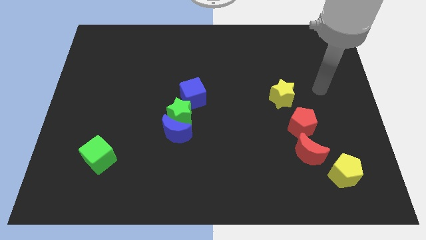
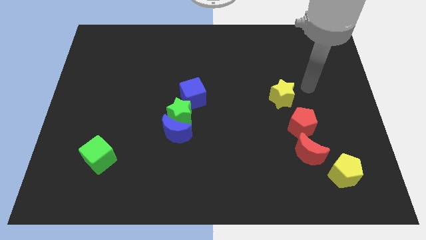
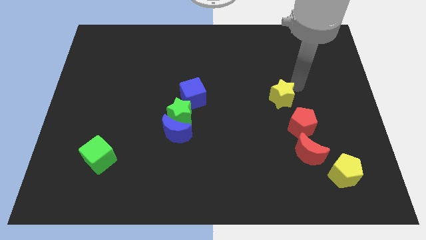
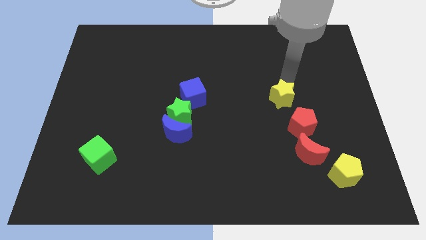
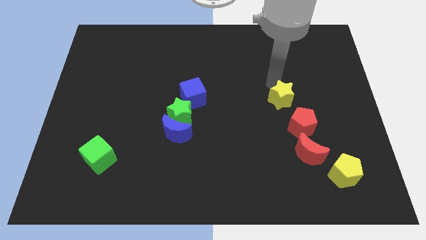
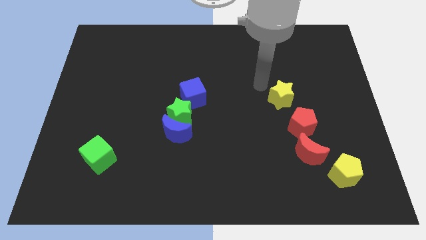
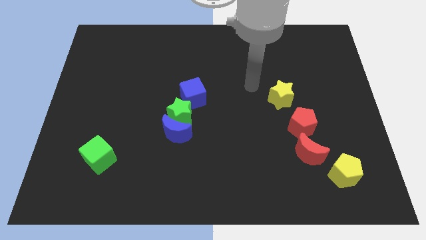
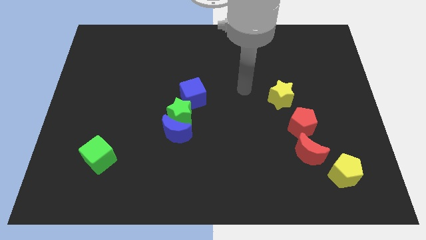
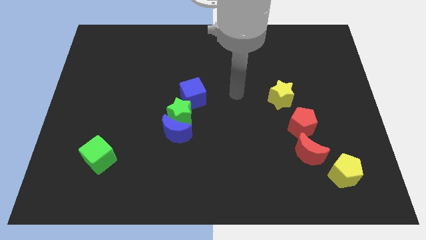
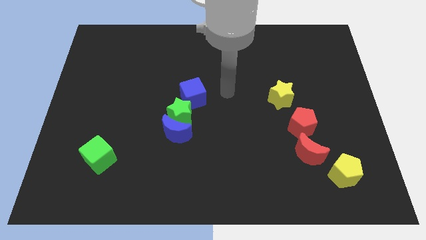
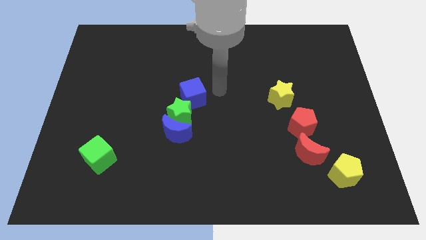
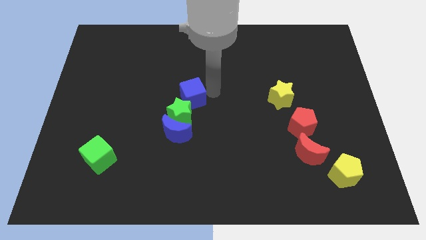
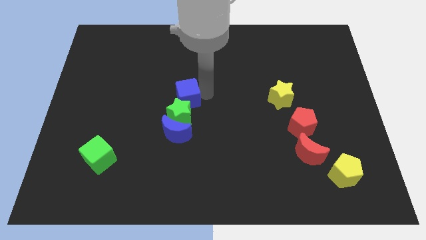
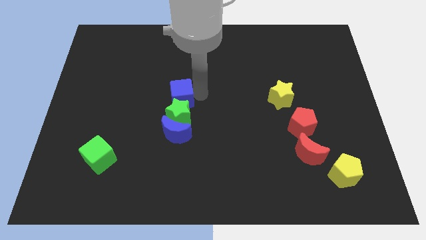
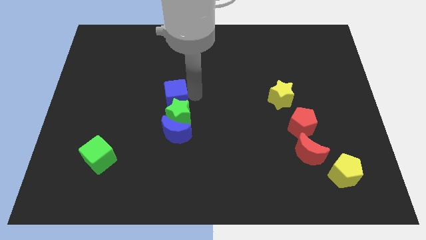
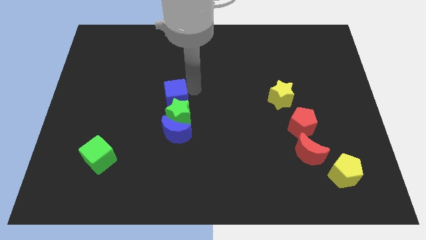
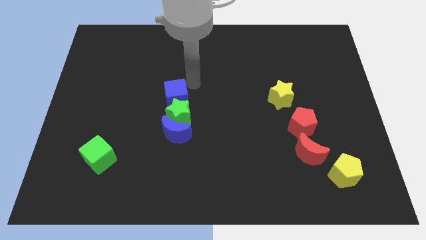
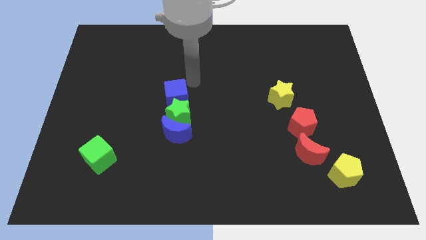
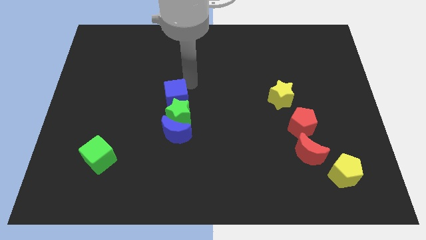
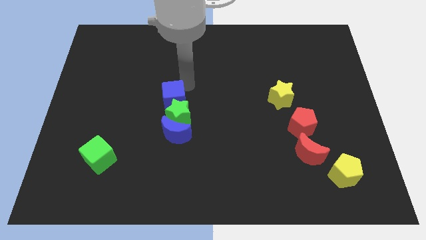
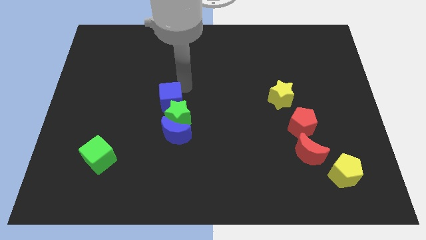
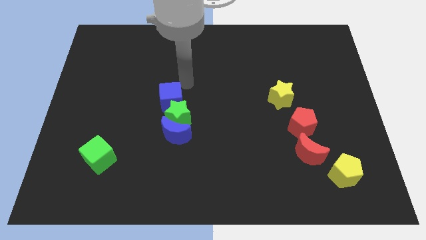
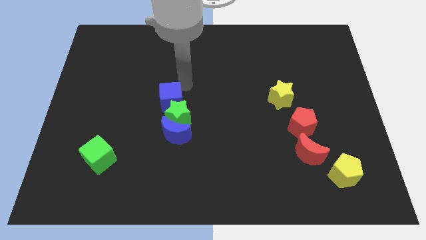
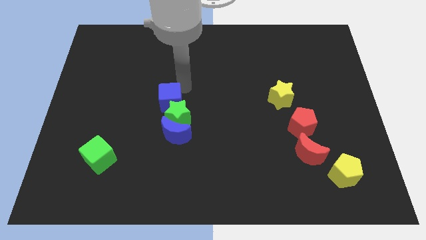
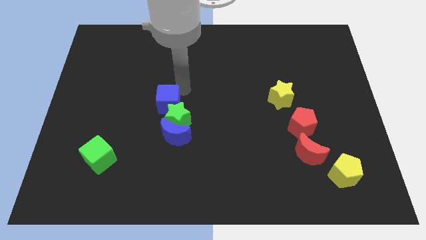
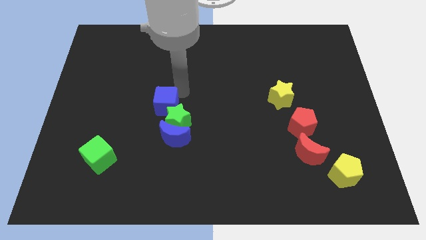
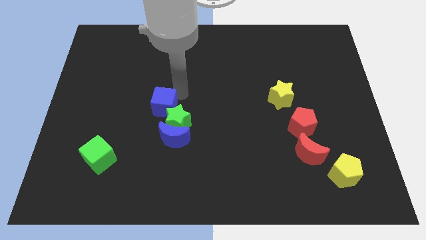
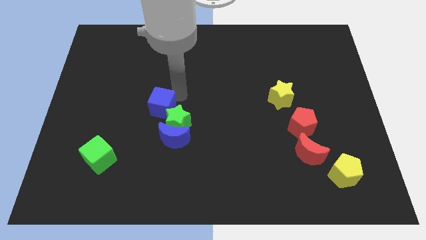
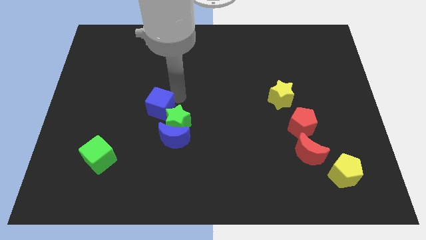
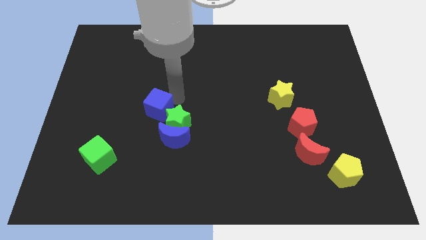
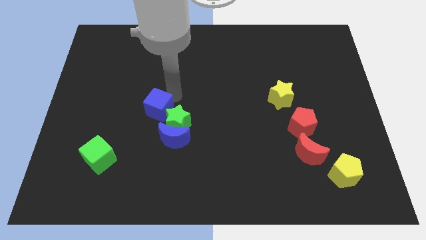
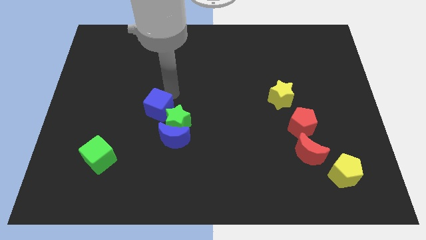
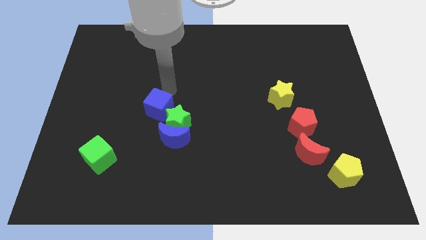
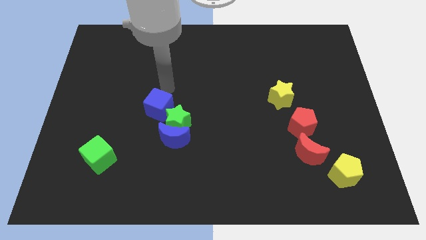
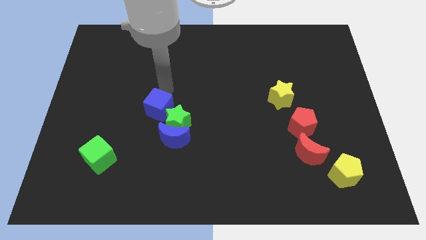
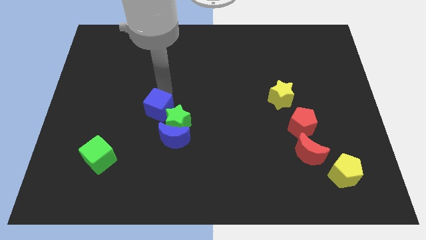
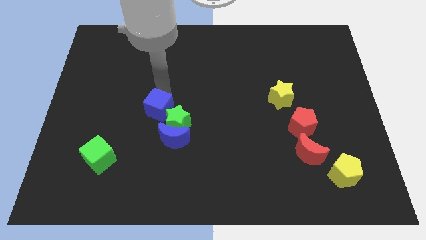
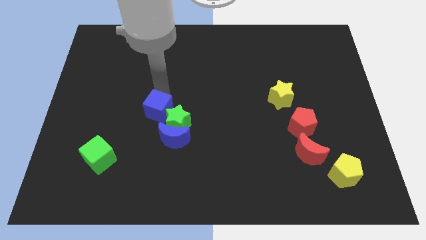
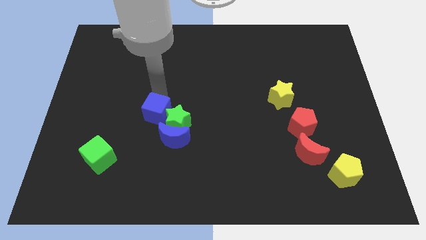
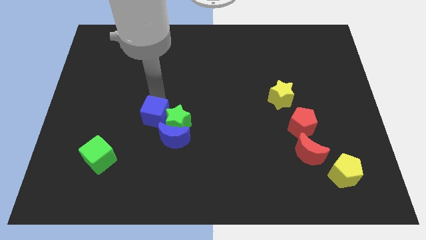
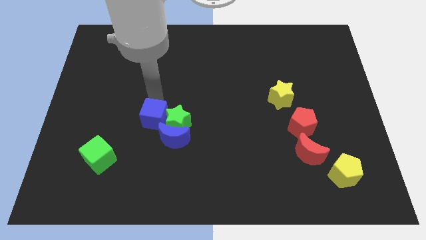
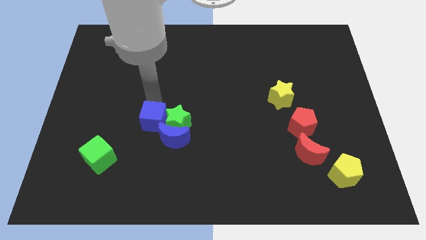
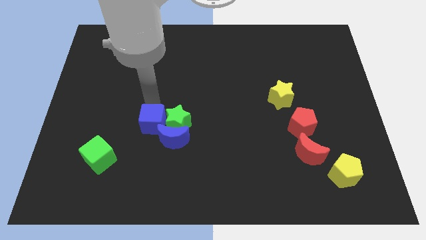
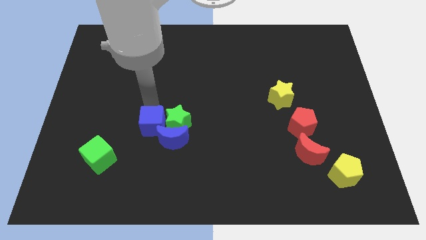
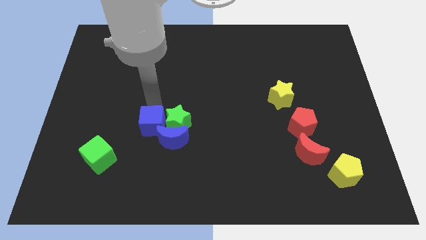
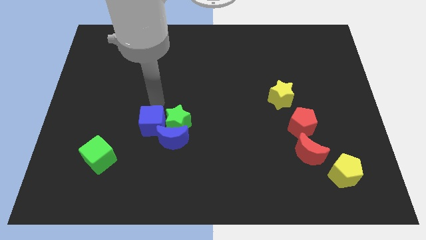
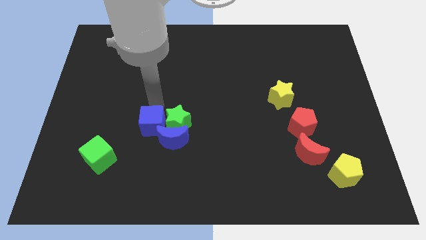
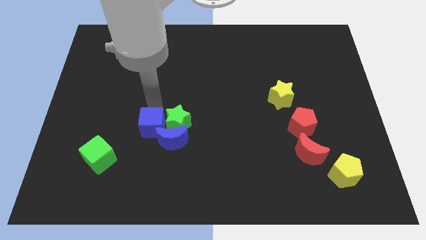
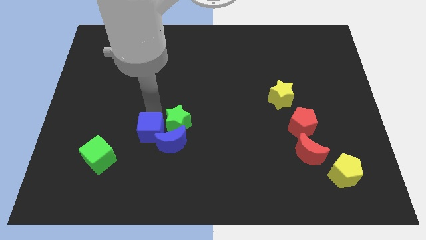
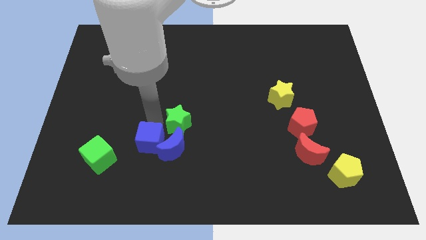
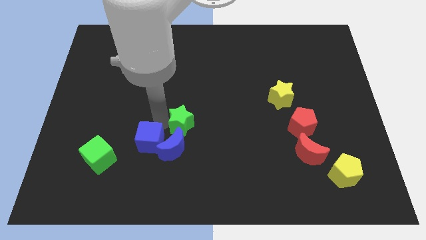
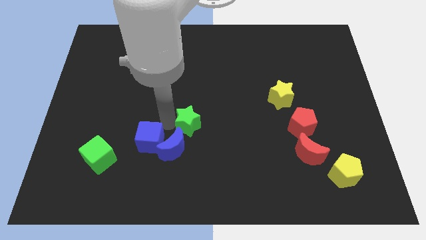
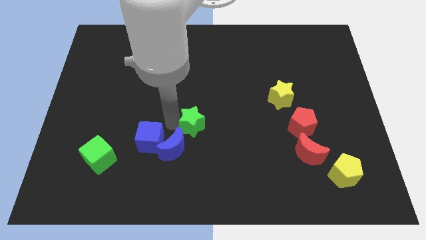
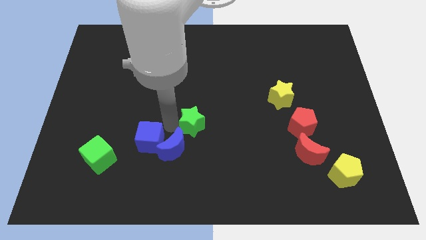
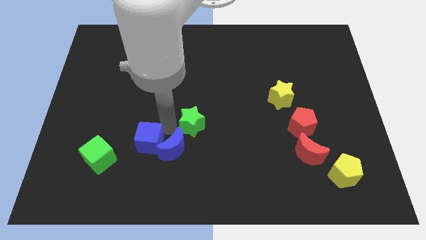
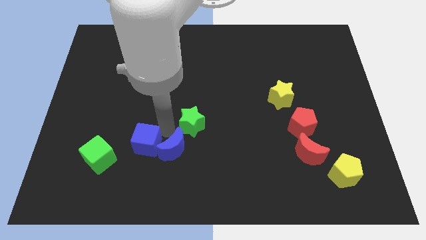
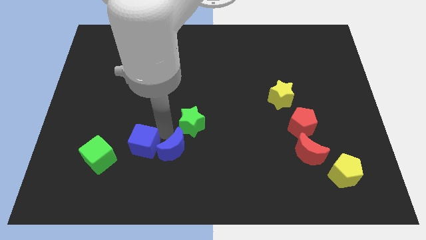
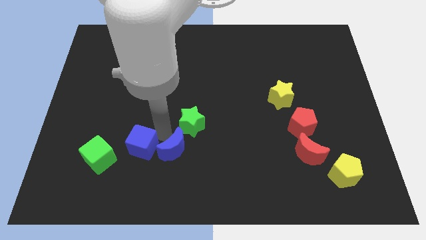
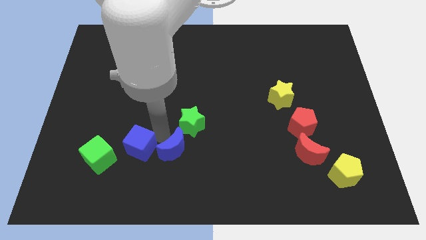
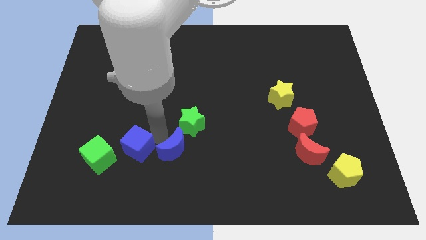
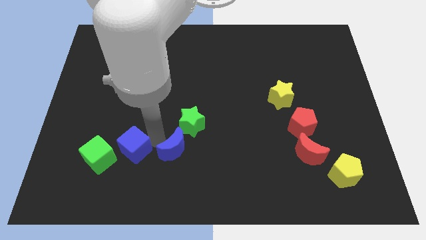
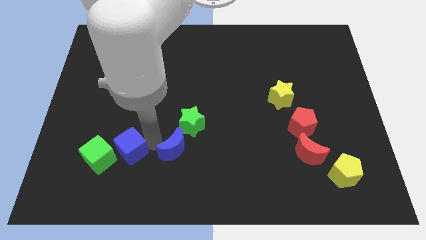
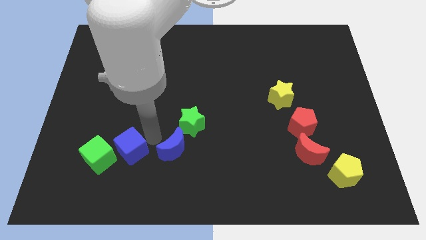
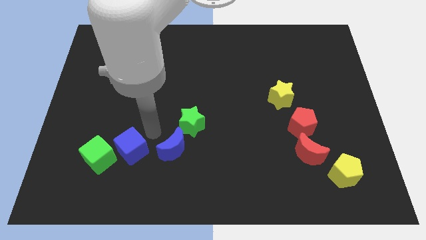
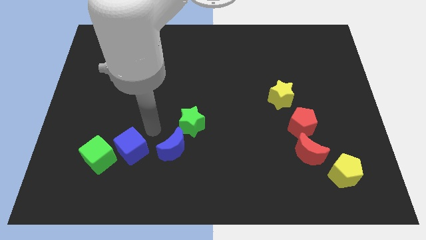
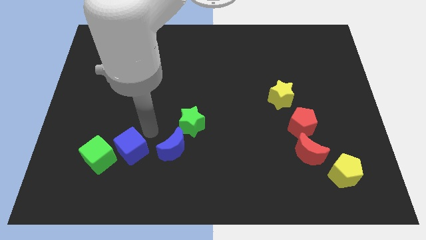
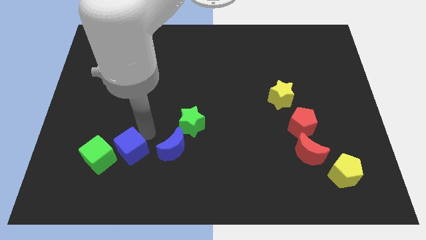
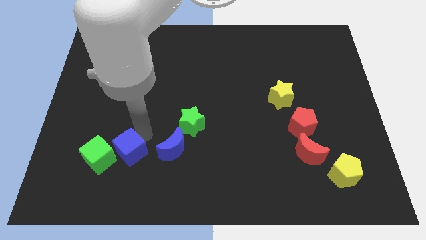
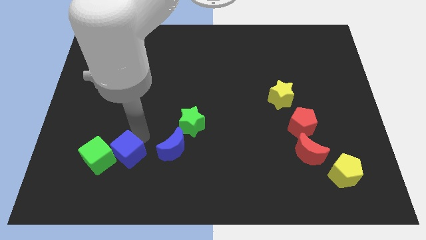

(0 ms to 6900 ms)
slide the blue cube diagonally downwards and left

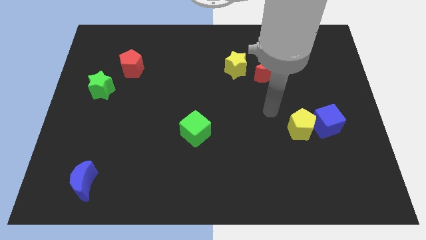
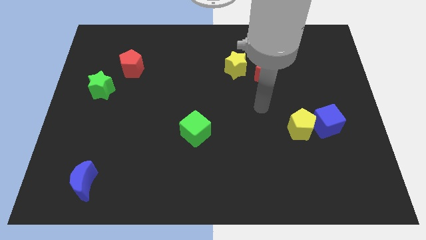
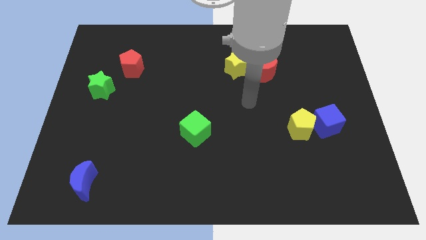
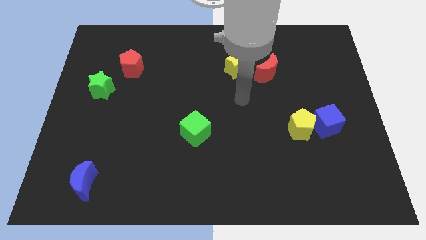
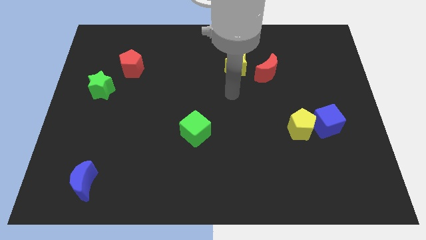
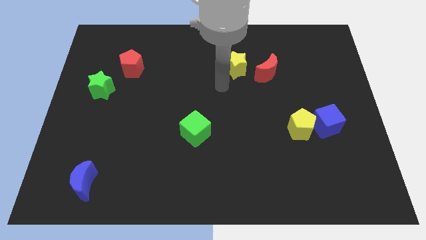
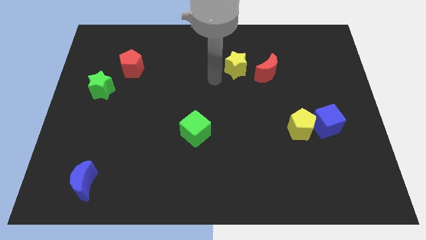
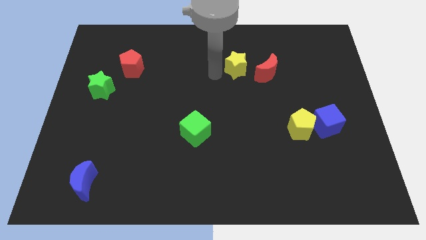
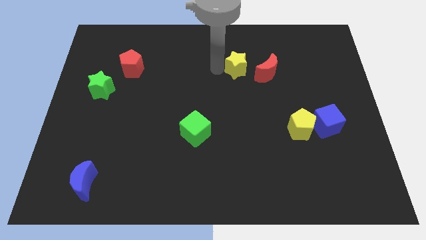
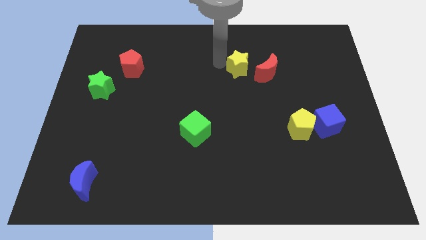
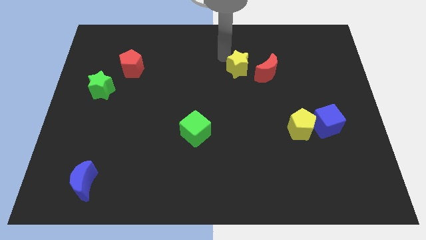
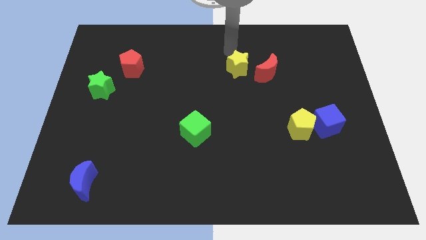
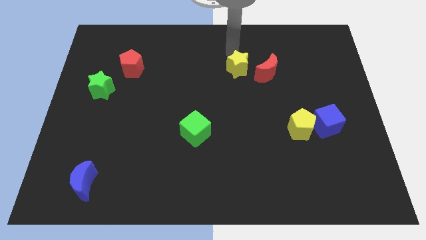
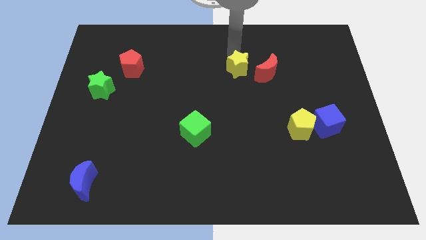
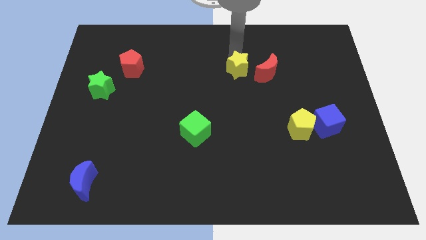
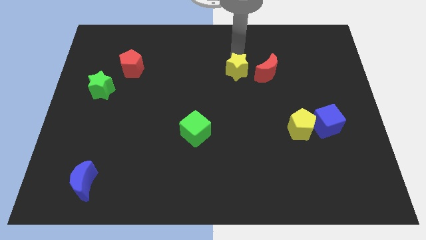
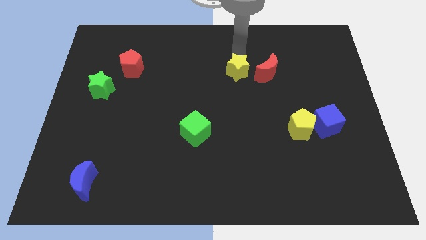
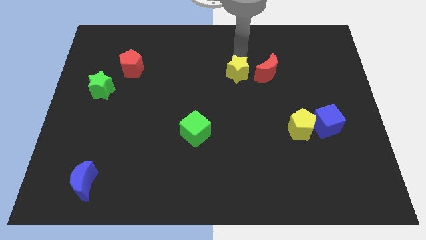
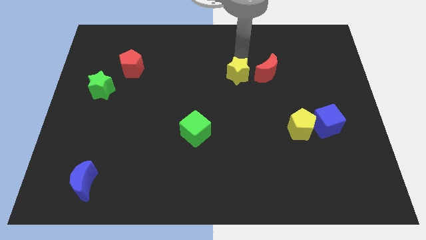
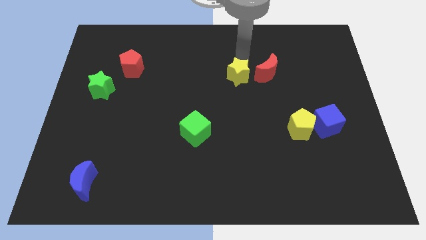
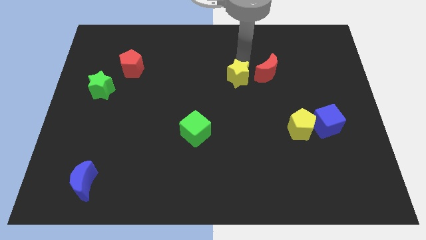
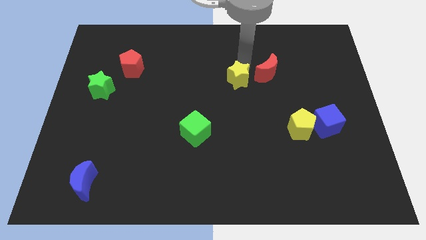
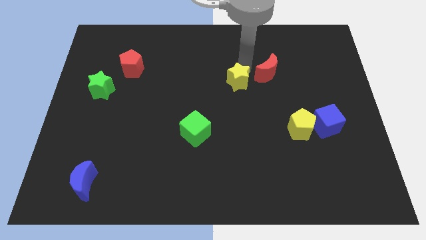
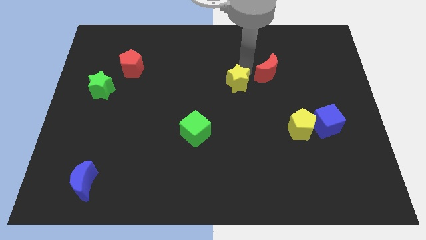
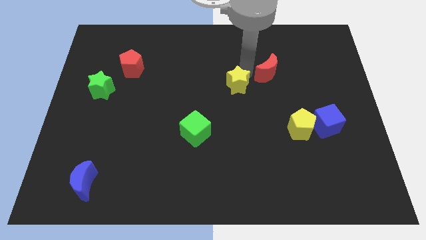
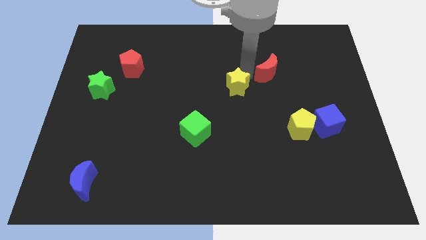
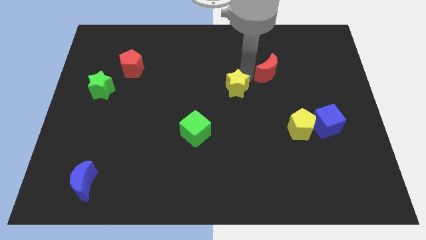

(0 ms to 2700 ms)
push the yellow star down a little bit
